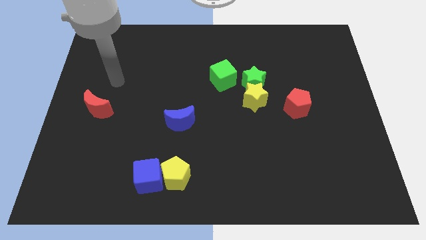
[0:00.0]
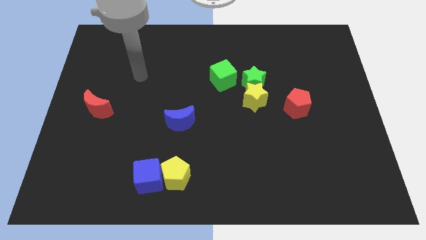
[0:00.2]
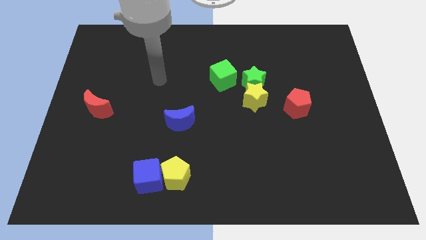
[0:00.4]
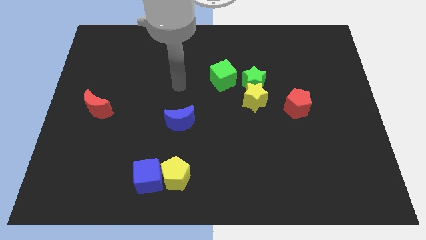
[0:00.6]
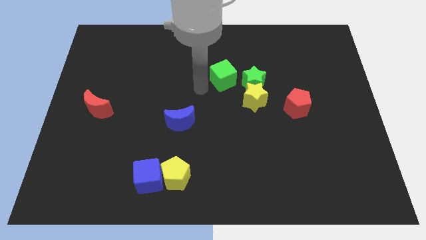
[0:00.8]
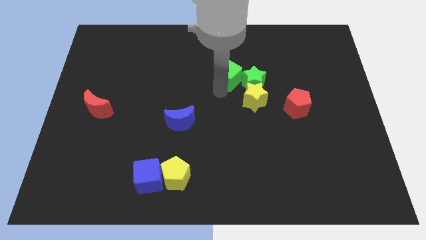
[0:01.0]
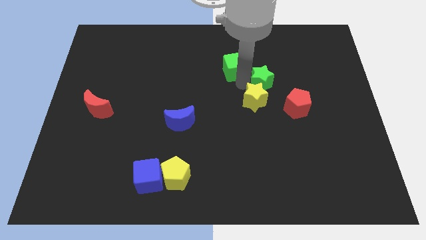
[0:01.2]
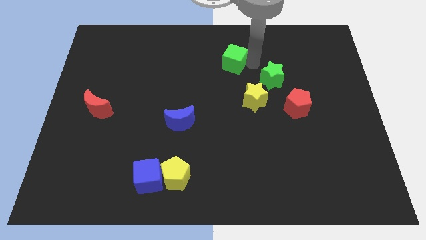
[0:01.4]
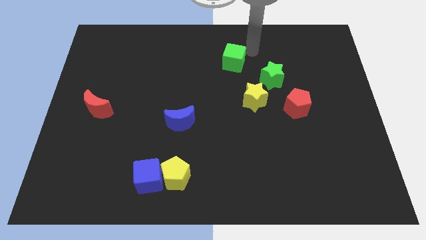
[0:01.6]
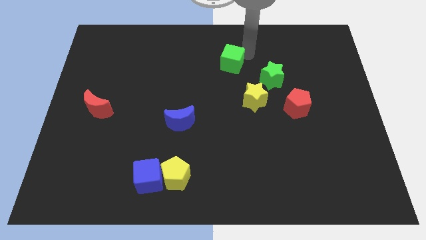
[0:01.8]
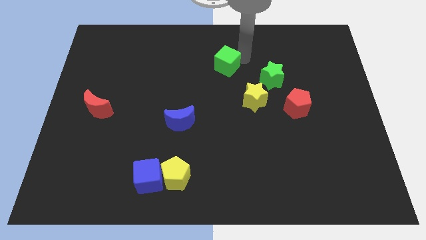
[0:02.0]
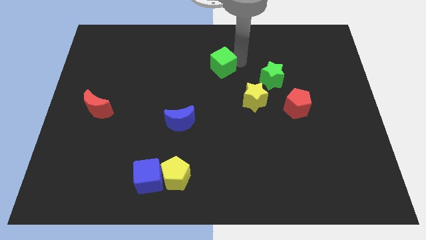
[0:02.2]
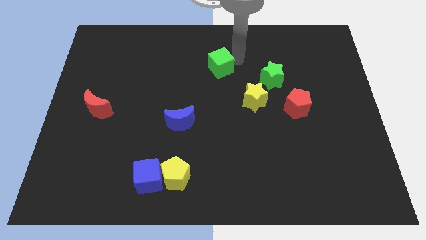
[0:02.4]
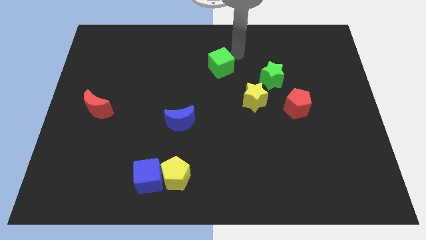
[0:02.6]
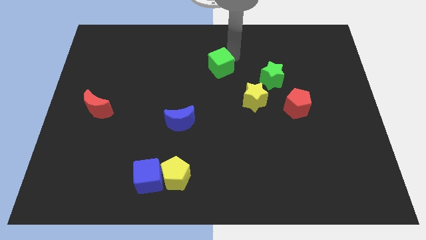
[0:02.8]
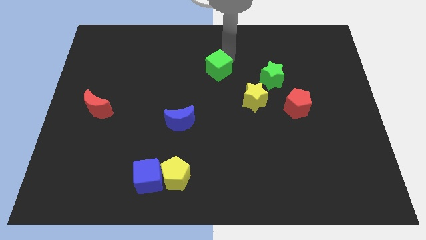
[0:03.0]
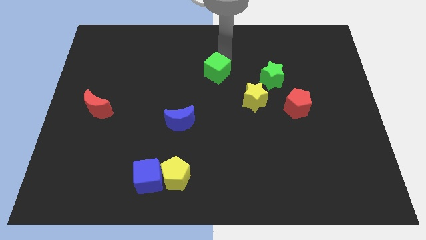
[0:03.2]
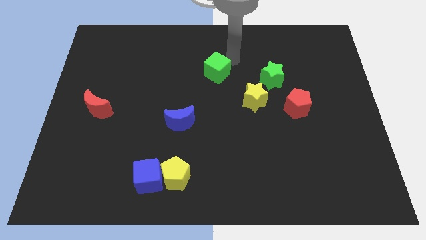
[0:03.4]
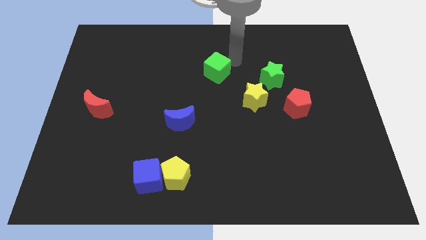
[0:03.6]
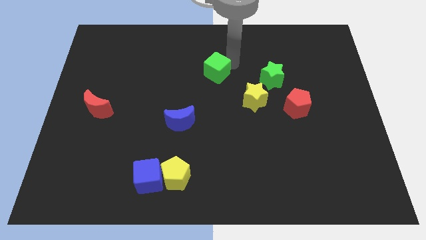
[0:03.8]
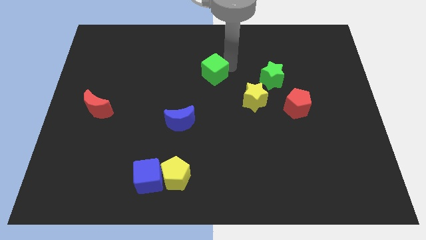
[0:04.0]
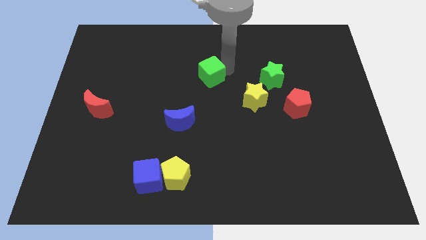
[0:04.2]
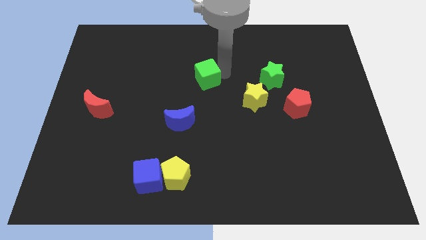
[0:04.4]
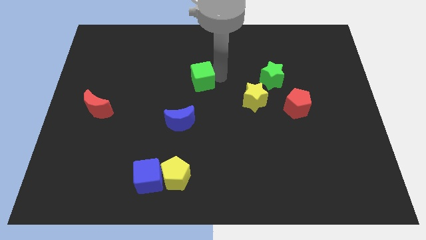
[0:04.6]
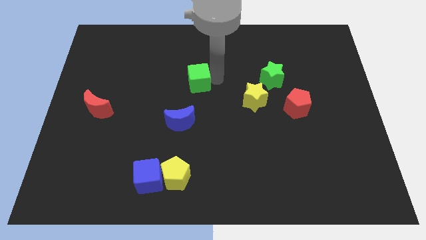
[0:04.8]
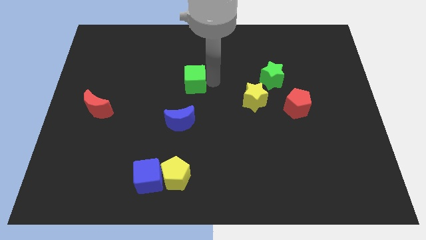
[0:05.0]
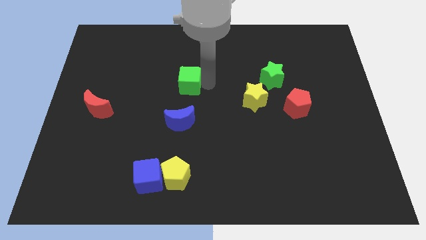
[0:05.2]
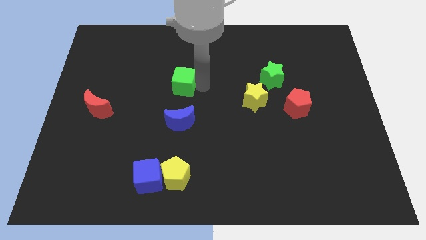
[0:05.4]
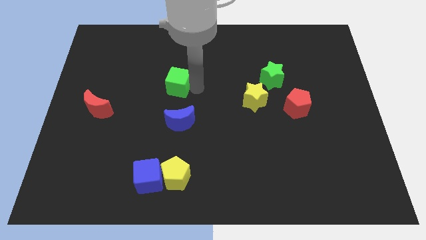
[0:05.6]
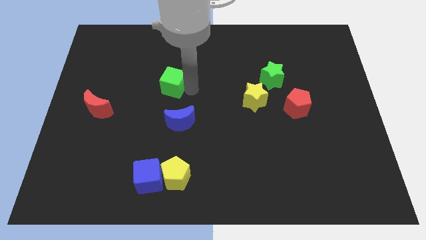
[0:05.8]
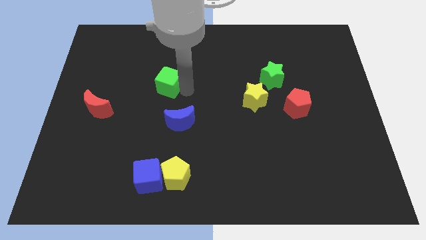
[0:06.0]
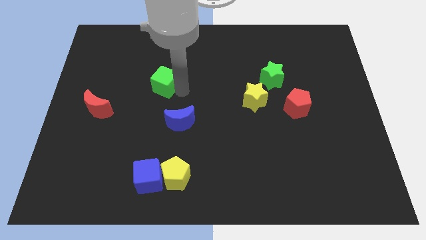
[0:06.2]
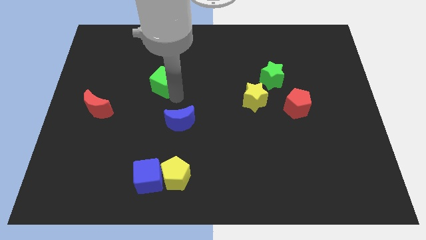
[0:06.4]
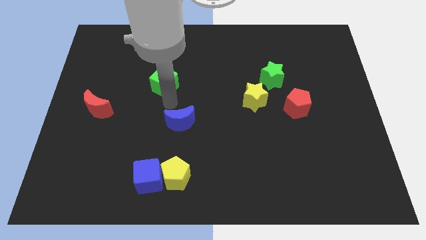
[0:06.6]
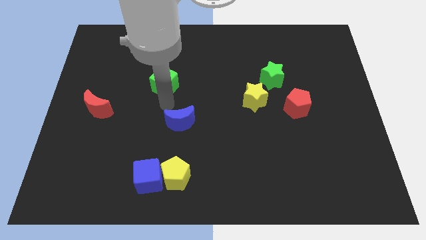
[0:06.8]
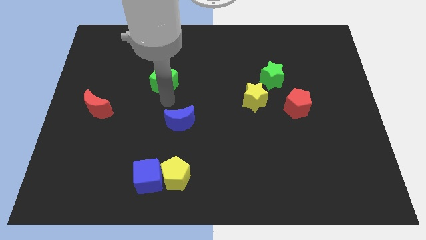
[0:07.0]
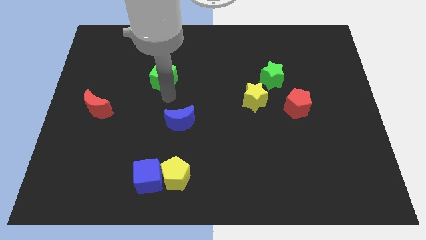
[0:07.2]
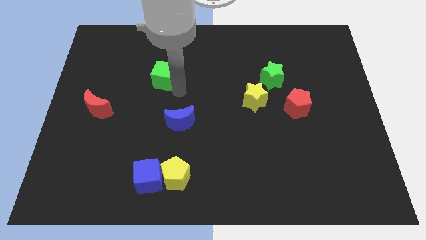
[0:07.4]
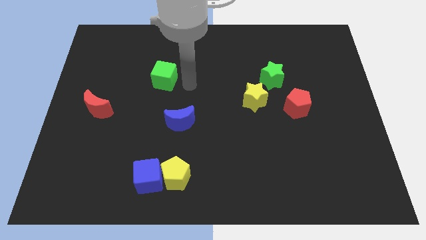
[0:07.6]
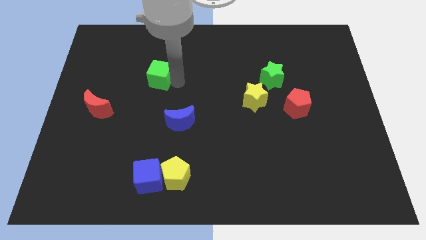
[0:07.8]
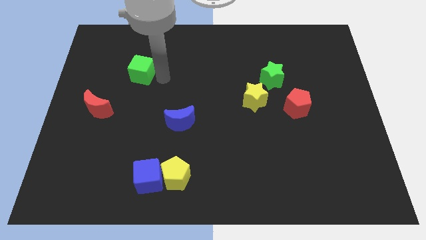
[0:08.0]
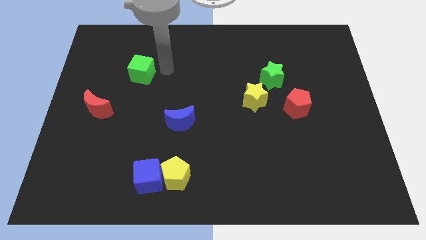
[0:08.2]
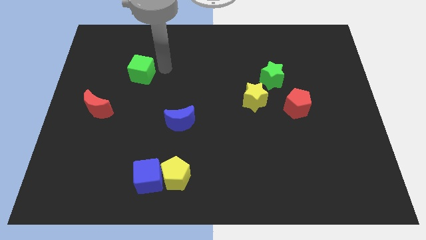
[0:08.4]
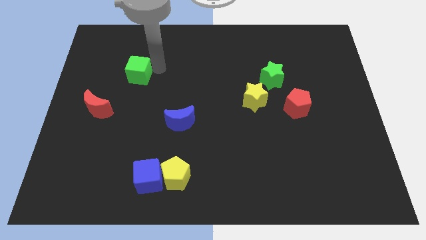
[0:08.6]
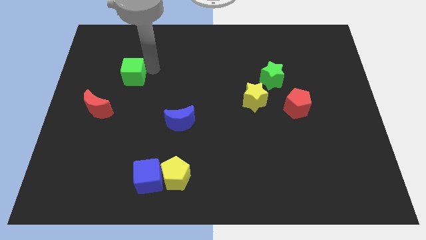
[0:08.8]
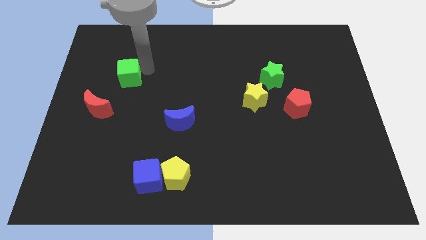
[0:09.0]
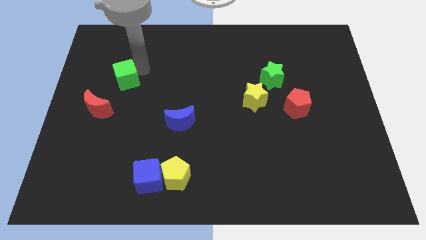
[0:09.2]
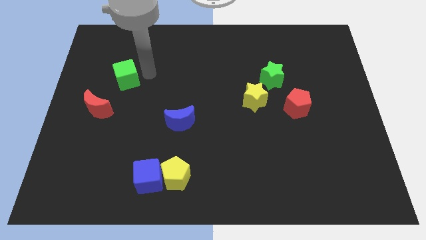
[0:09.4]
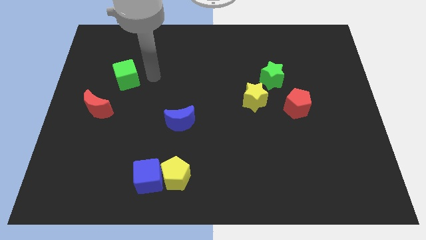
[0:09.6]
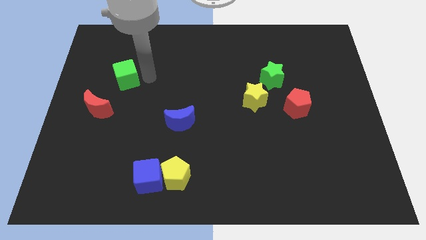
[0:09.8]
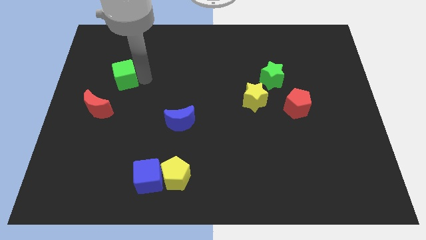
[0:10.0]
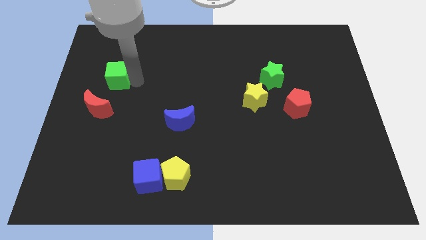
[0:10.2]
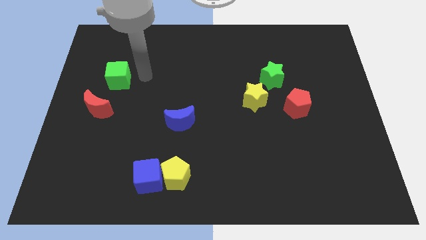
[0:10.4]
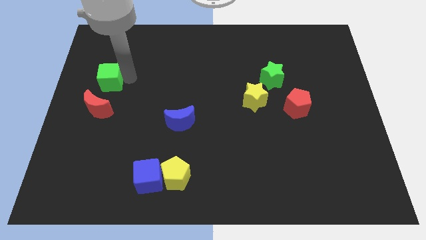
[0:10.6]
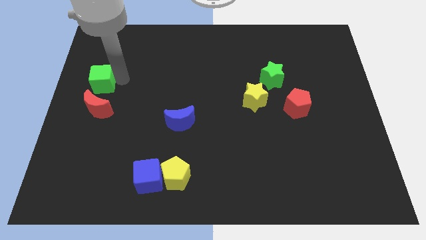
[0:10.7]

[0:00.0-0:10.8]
move the green cube to the left side of the board

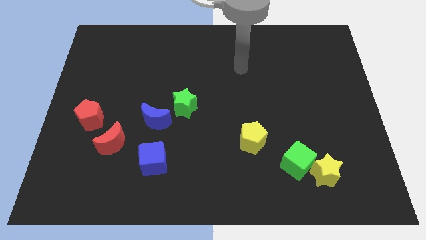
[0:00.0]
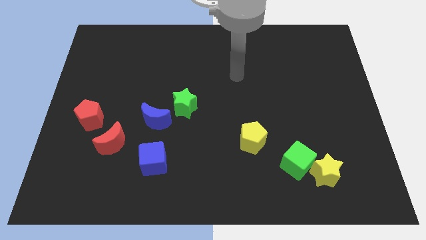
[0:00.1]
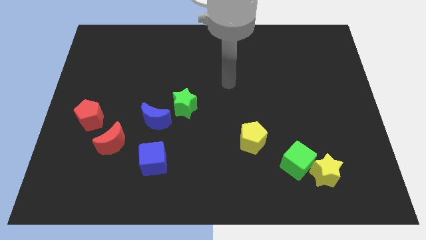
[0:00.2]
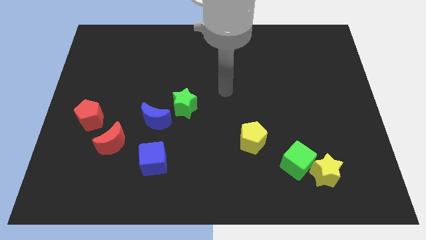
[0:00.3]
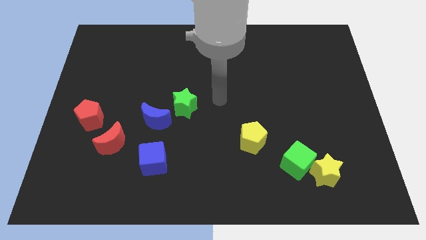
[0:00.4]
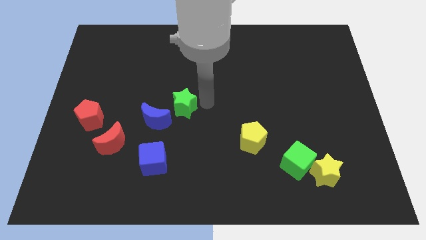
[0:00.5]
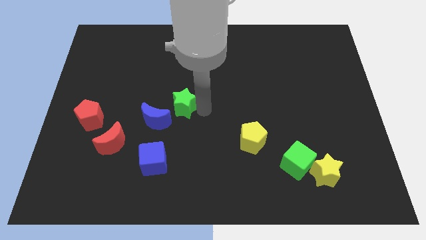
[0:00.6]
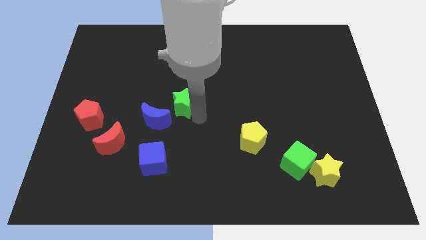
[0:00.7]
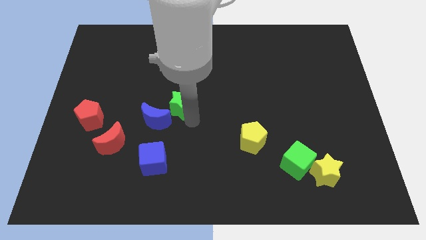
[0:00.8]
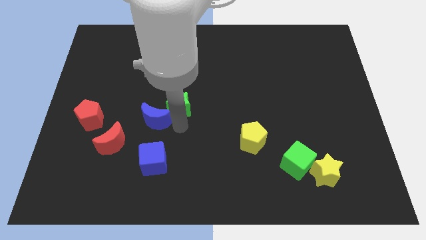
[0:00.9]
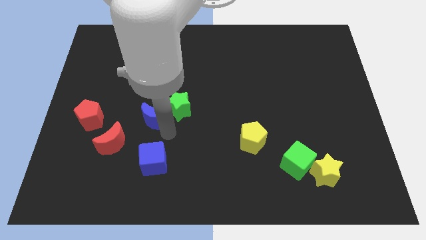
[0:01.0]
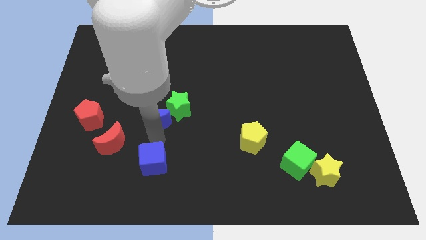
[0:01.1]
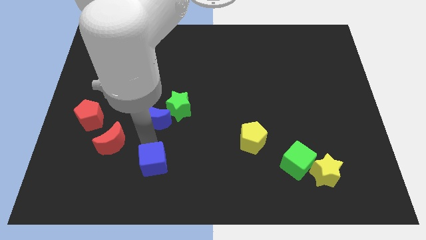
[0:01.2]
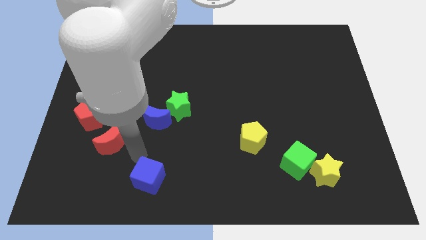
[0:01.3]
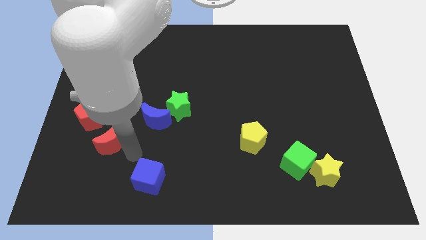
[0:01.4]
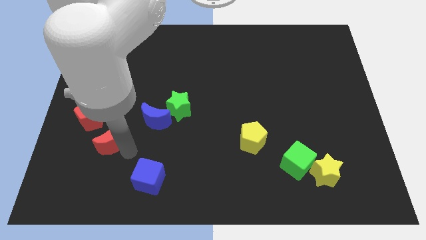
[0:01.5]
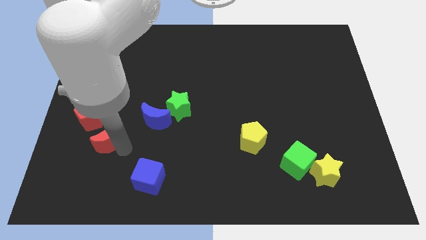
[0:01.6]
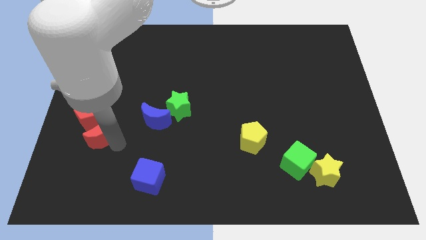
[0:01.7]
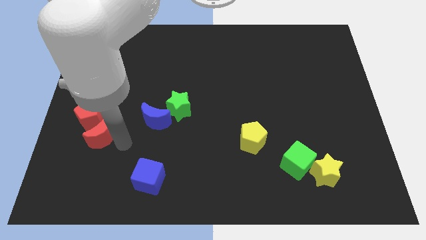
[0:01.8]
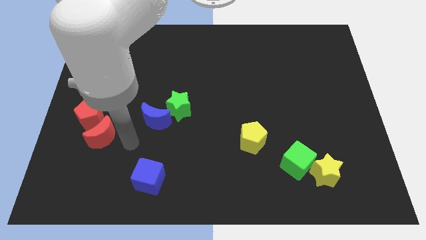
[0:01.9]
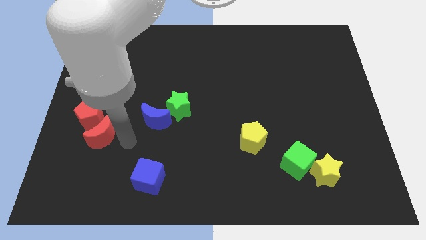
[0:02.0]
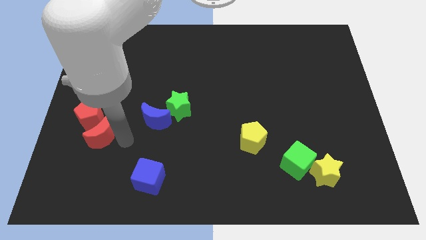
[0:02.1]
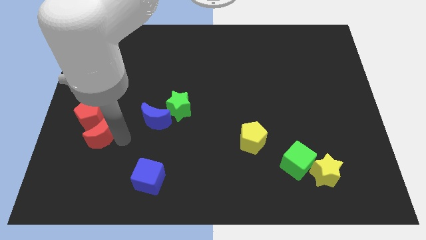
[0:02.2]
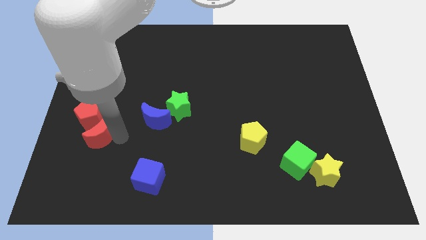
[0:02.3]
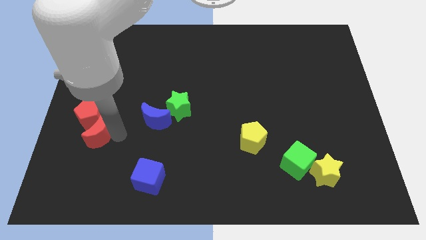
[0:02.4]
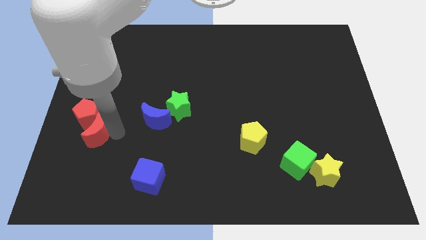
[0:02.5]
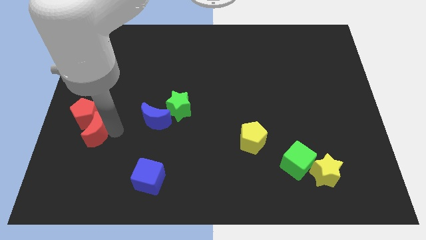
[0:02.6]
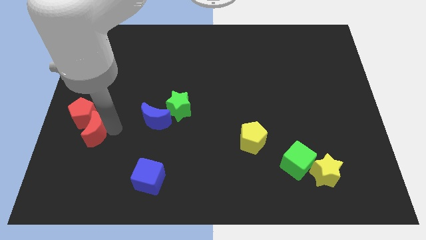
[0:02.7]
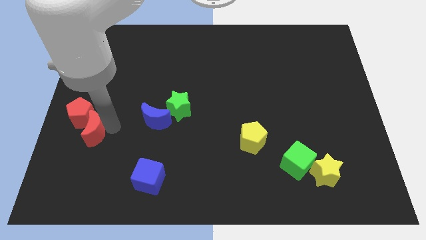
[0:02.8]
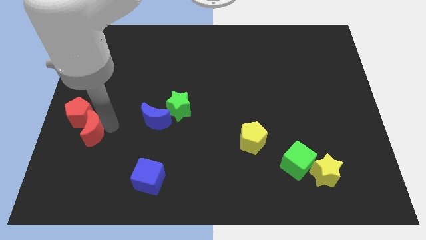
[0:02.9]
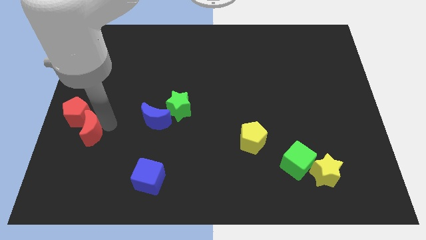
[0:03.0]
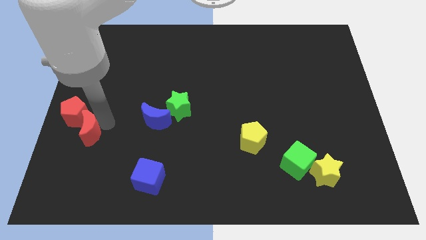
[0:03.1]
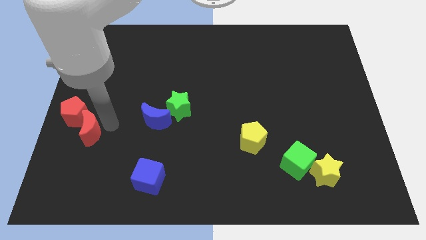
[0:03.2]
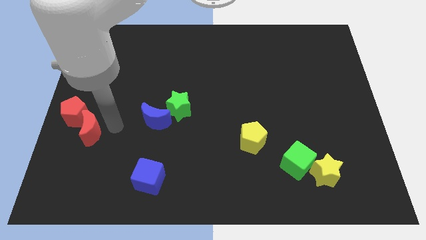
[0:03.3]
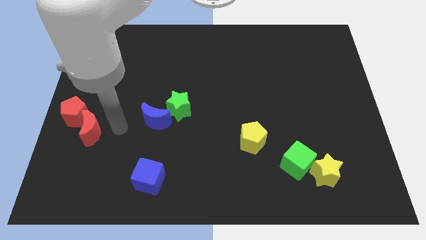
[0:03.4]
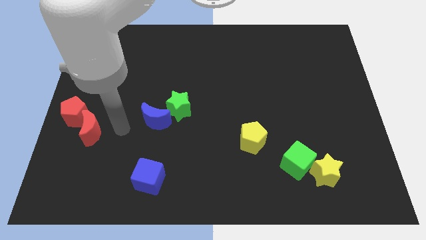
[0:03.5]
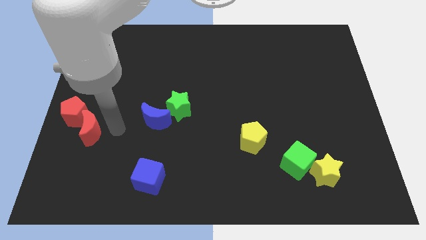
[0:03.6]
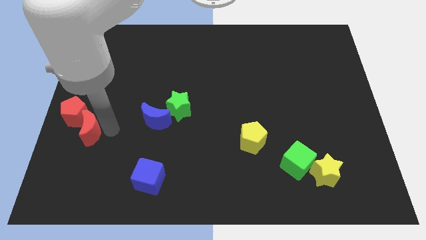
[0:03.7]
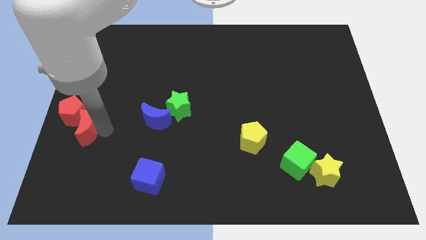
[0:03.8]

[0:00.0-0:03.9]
push the red moon to the center left
